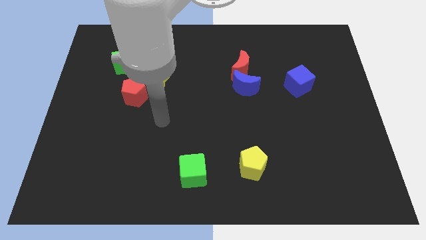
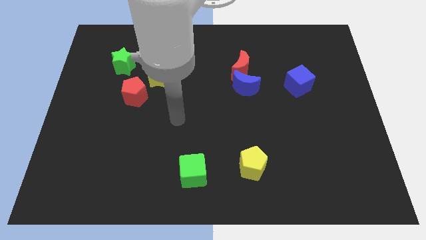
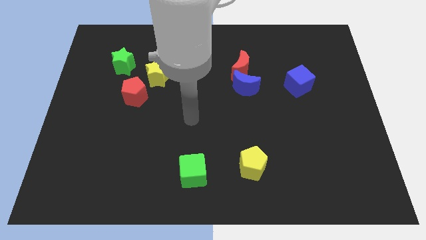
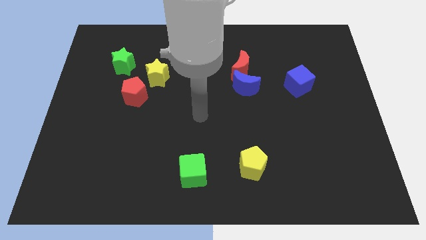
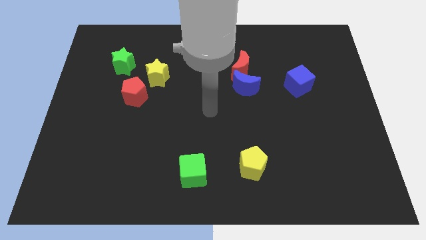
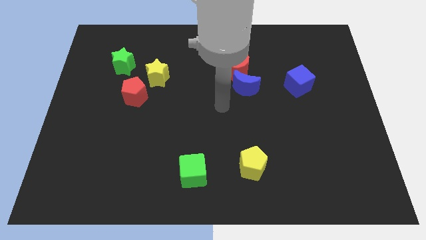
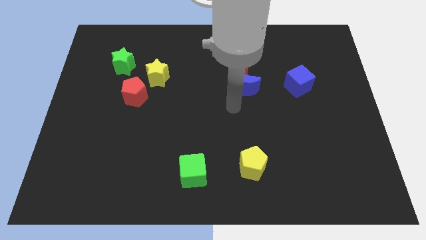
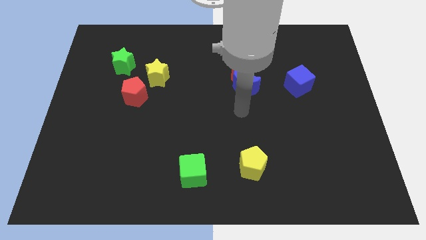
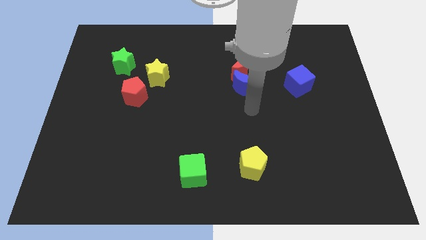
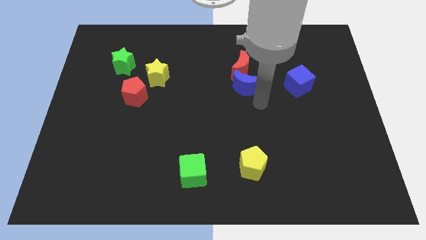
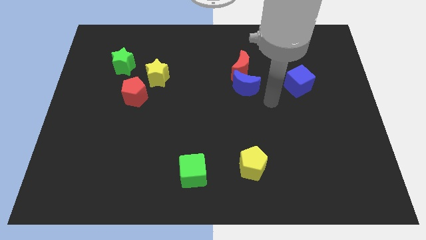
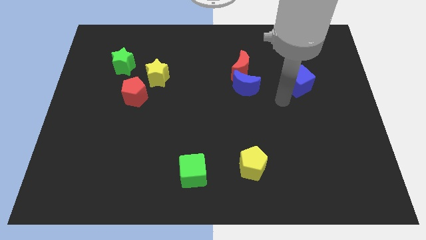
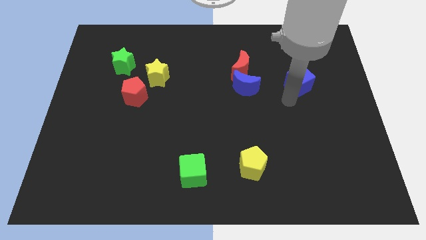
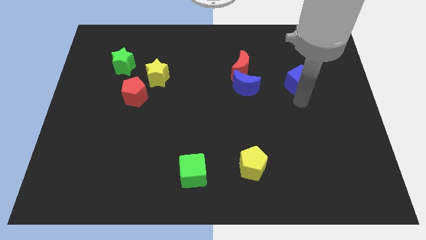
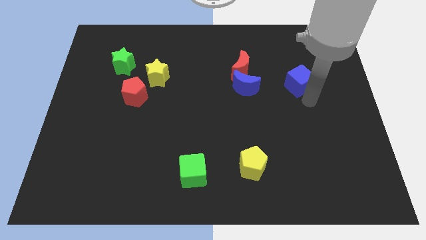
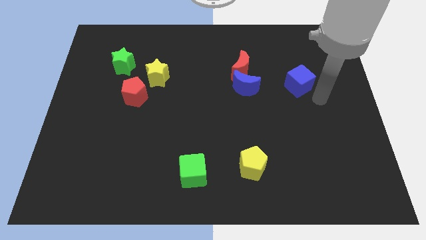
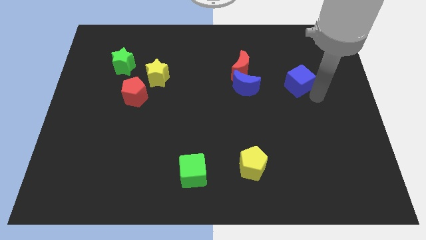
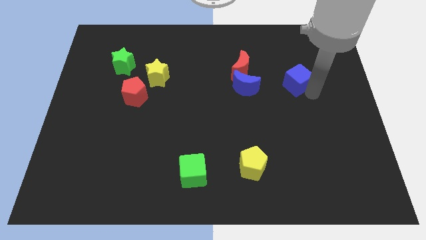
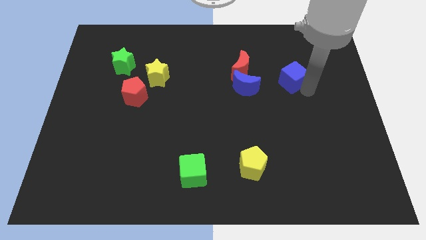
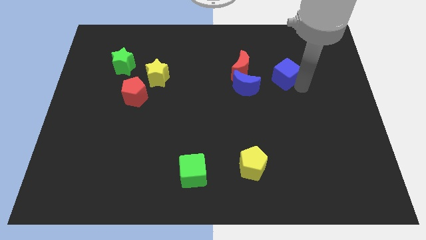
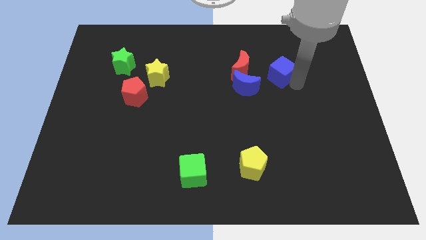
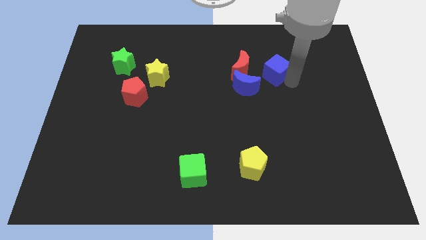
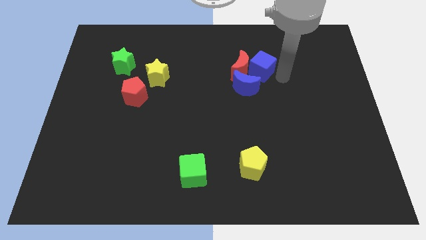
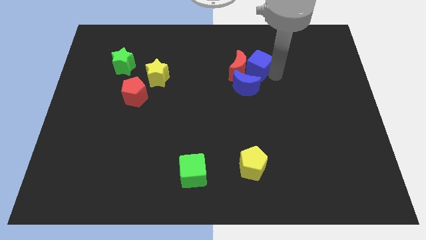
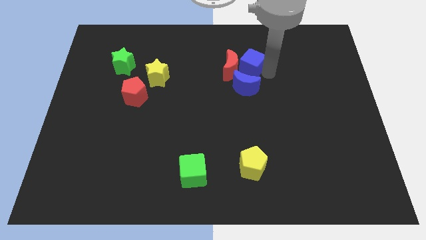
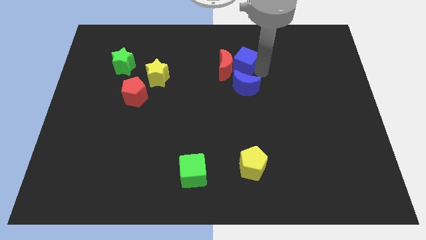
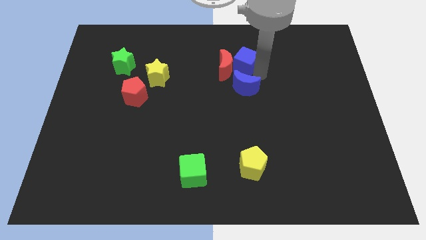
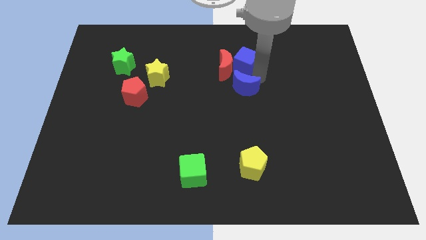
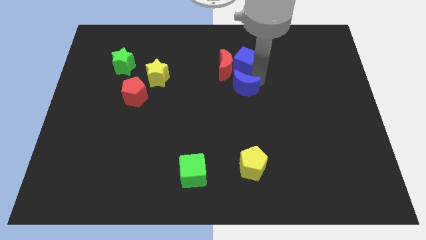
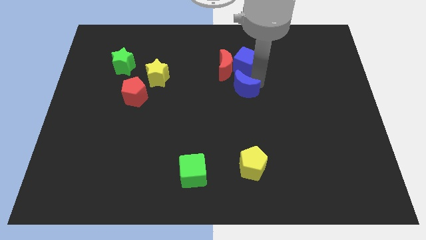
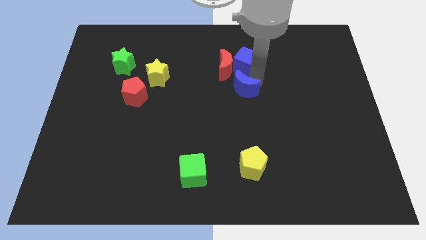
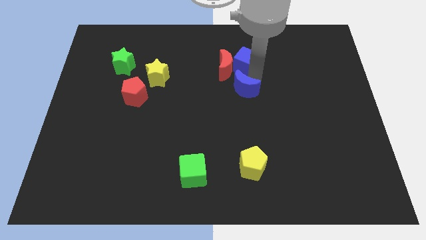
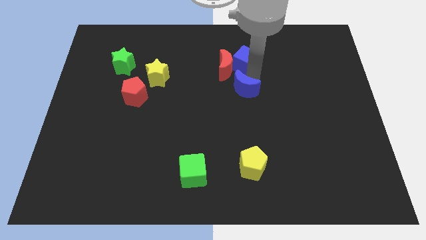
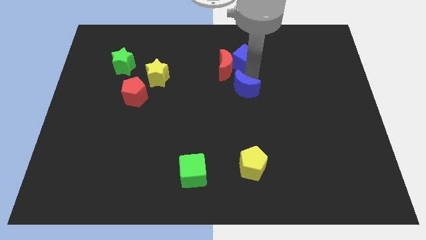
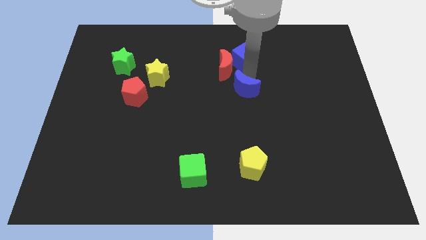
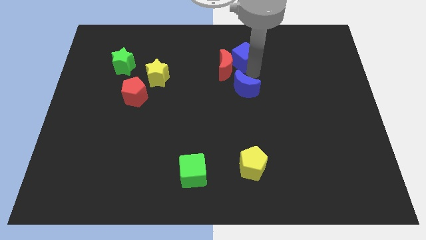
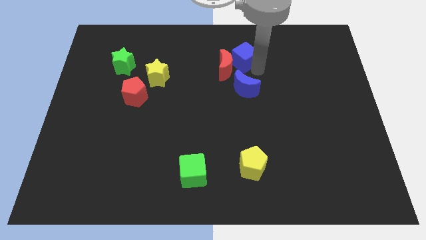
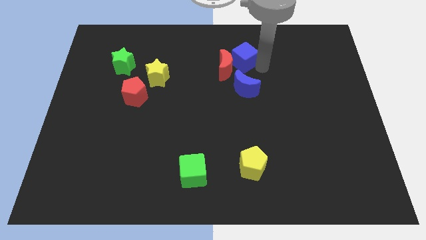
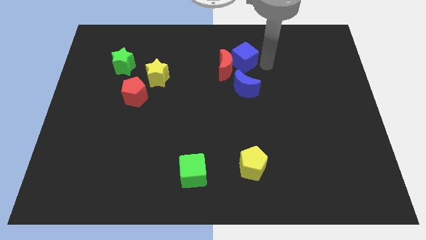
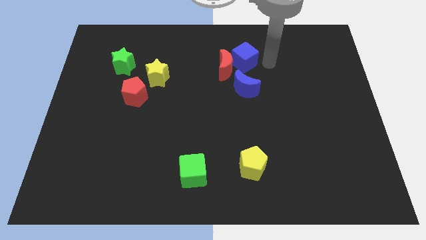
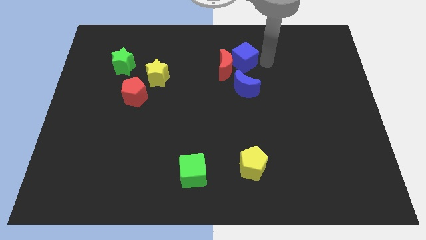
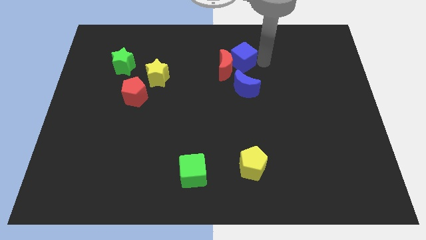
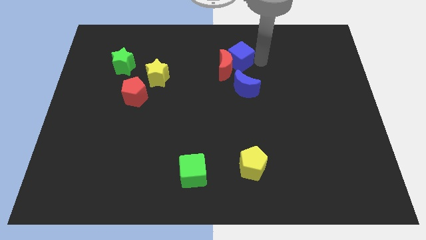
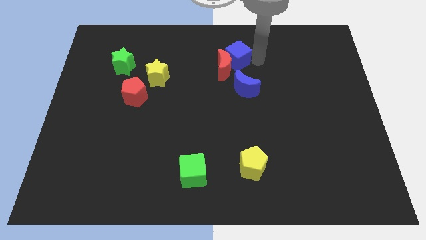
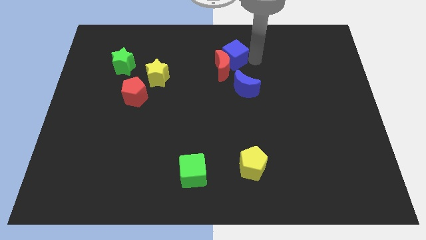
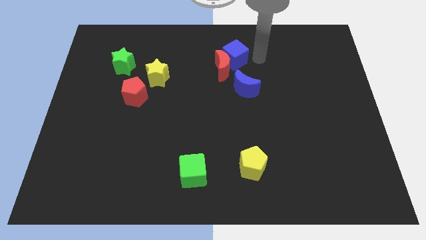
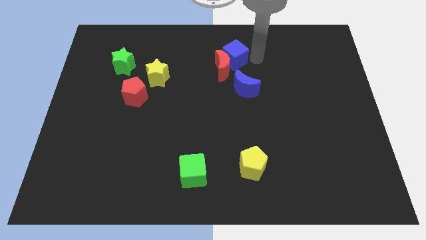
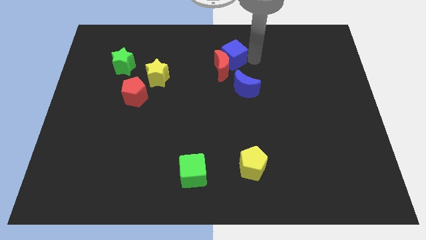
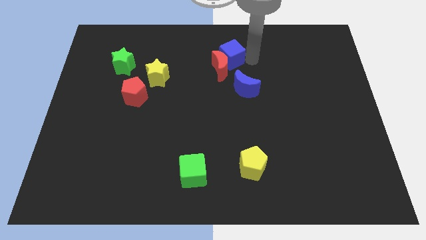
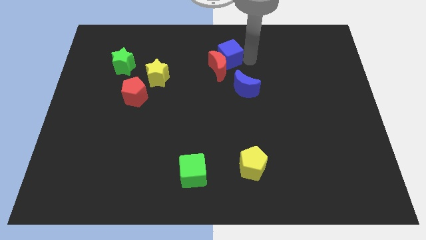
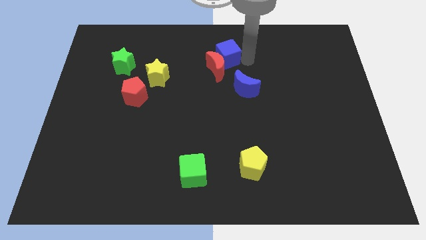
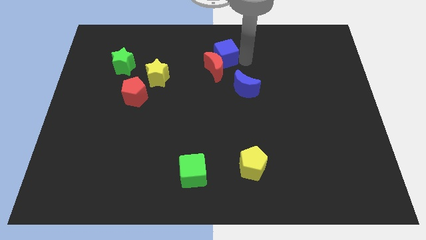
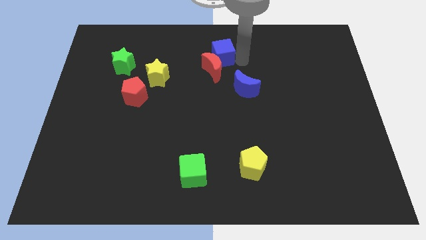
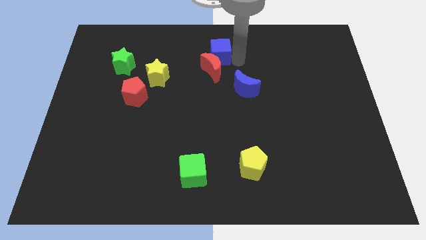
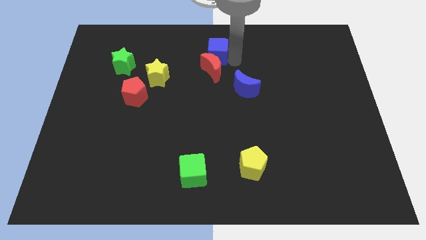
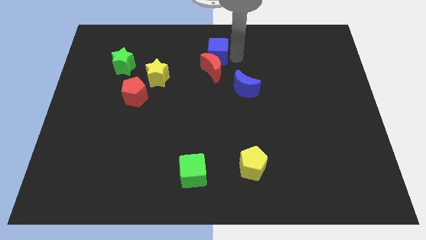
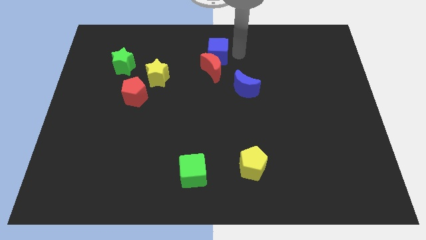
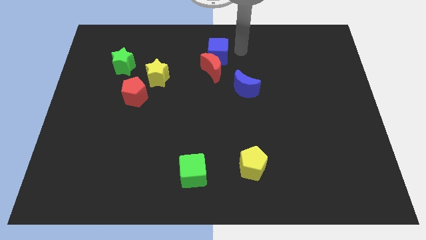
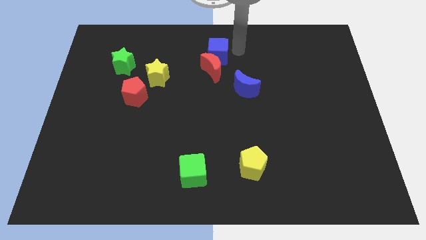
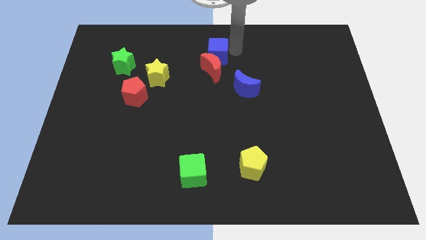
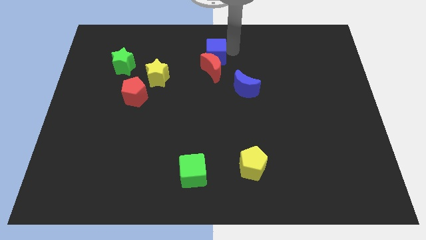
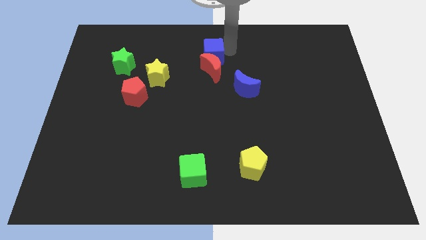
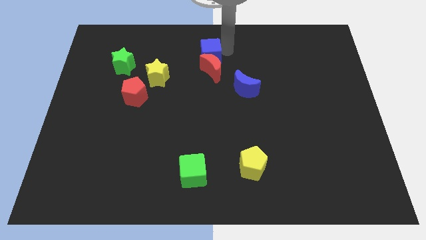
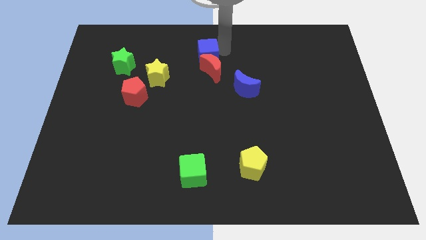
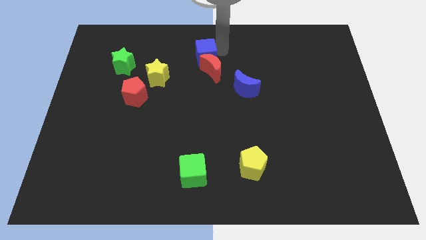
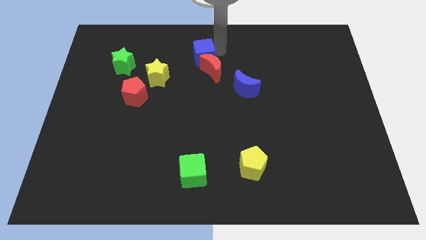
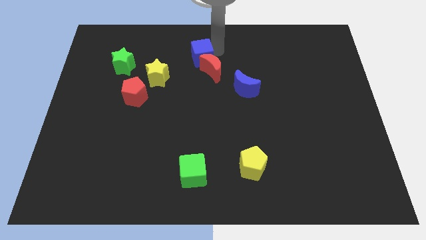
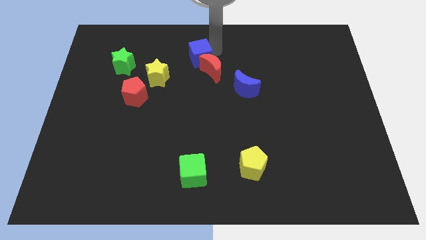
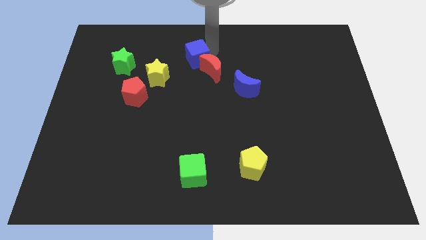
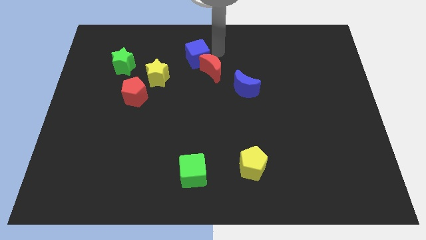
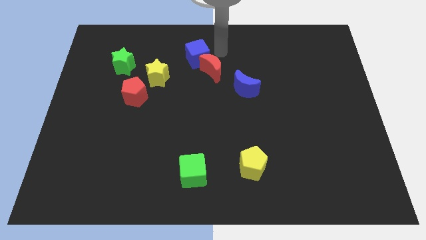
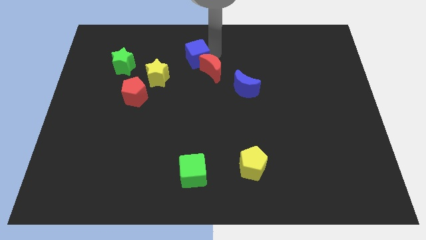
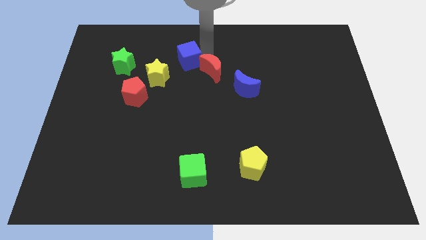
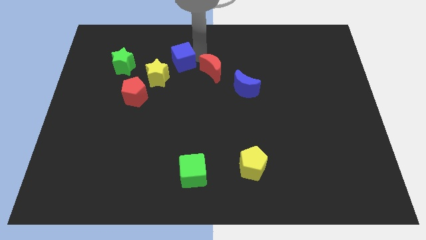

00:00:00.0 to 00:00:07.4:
move the blue cube to the right of the green star
